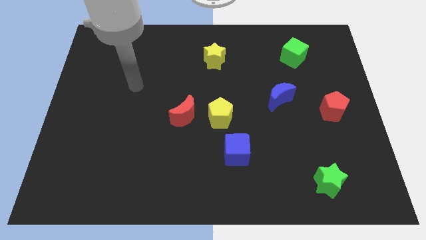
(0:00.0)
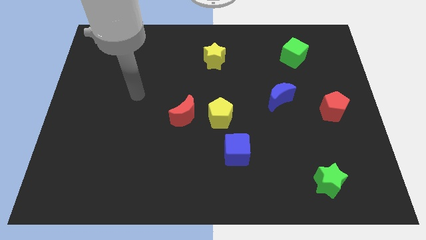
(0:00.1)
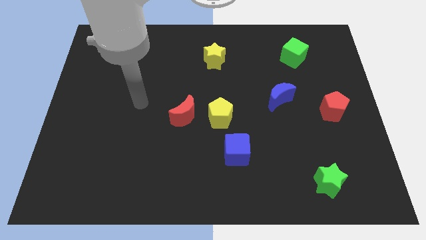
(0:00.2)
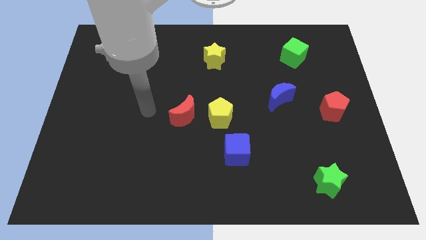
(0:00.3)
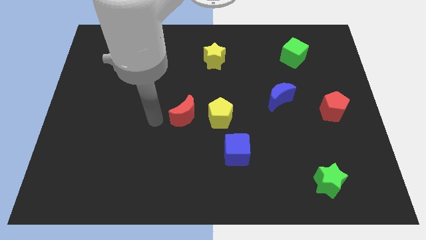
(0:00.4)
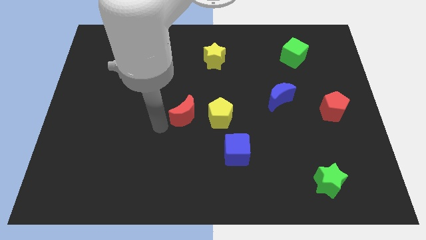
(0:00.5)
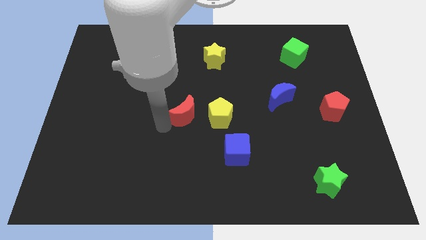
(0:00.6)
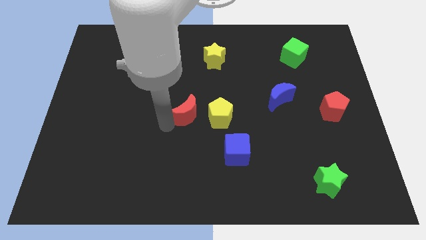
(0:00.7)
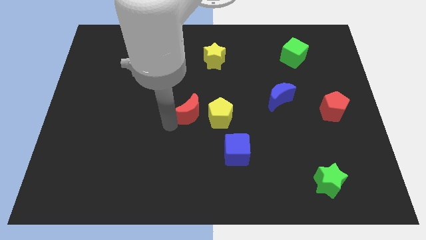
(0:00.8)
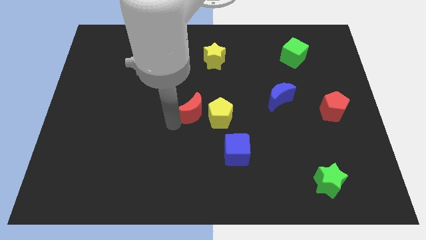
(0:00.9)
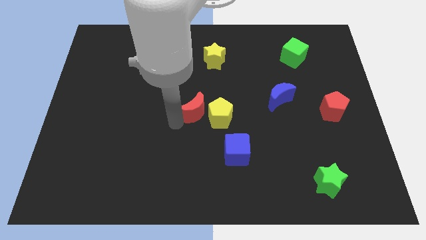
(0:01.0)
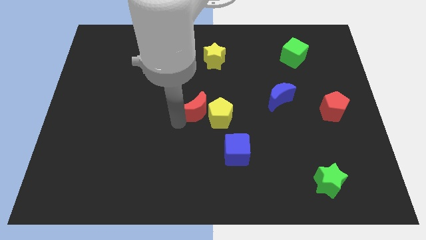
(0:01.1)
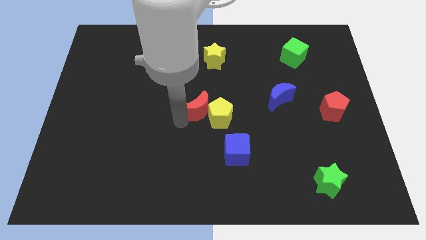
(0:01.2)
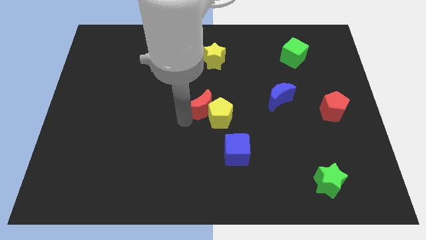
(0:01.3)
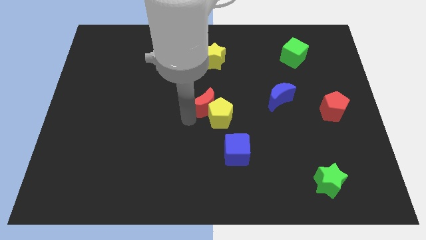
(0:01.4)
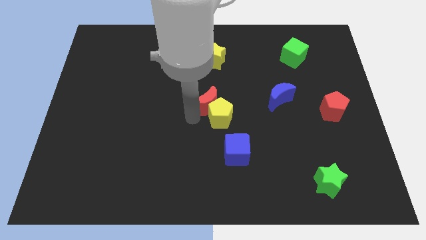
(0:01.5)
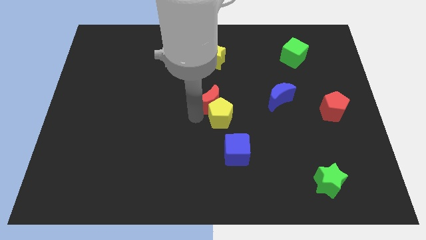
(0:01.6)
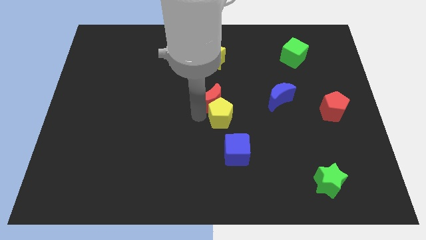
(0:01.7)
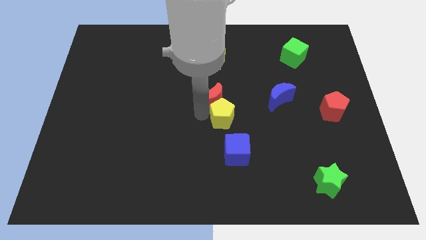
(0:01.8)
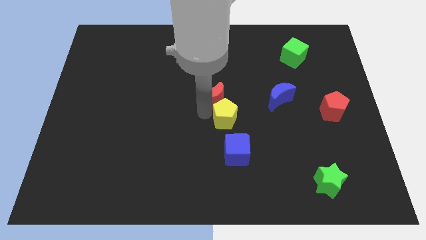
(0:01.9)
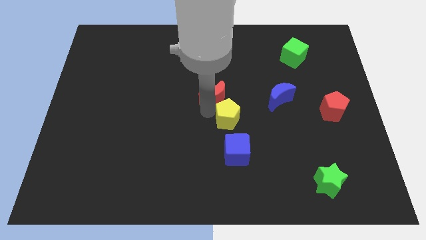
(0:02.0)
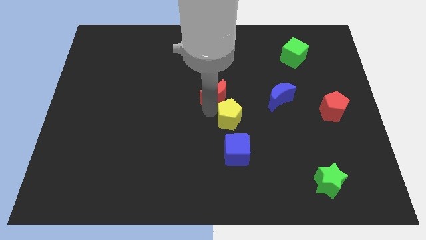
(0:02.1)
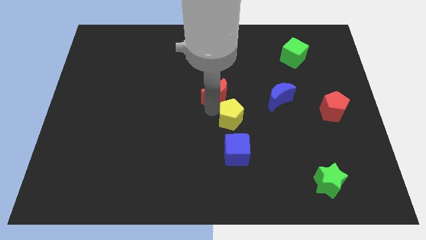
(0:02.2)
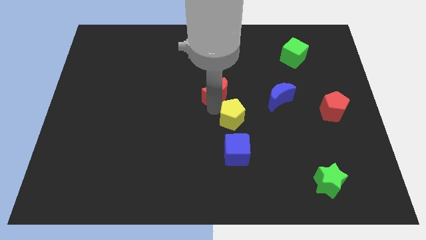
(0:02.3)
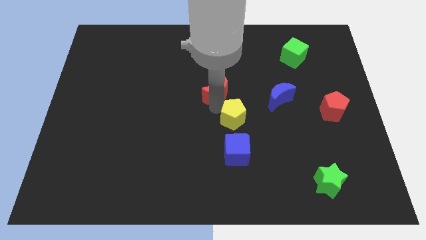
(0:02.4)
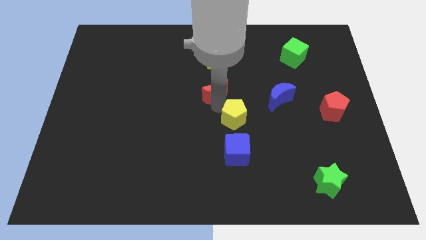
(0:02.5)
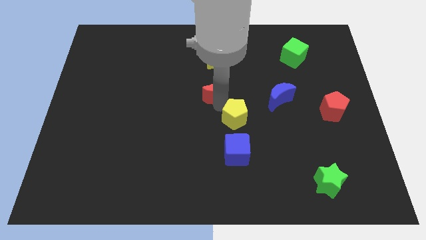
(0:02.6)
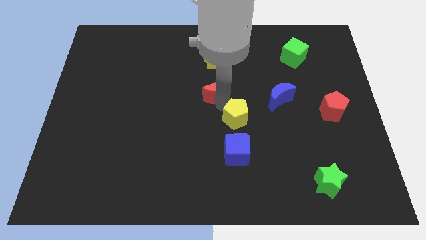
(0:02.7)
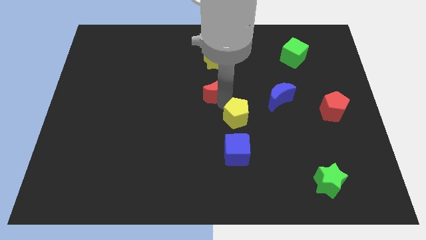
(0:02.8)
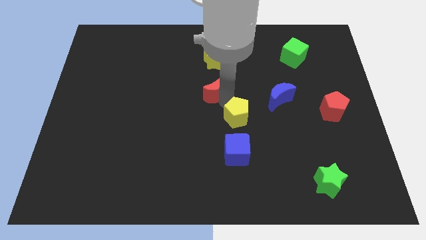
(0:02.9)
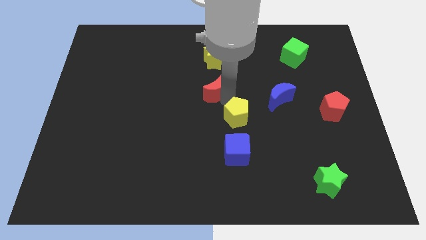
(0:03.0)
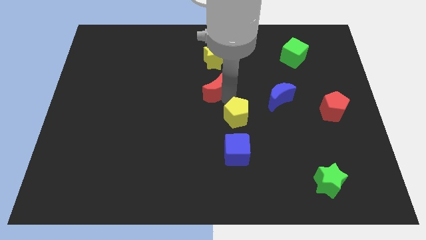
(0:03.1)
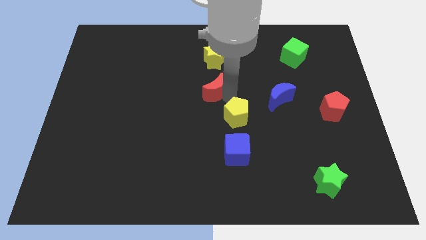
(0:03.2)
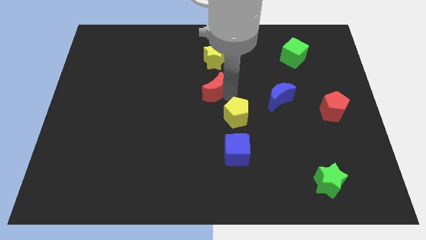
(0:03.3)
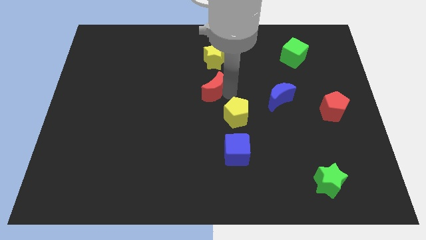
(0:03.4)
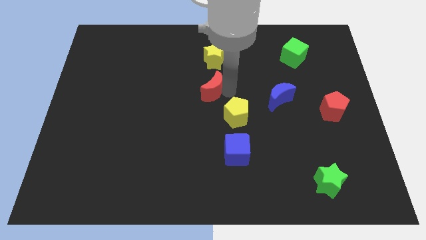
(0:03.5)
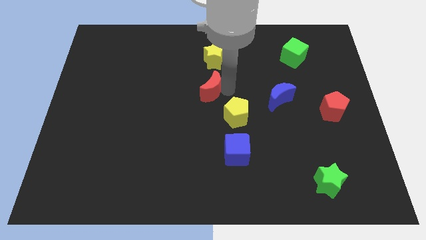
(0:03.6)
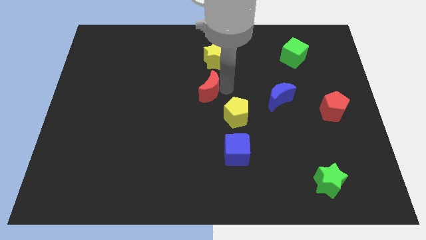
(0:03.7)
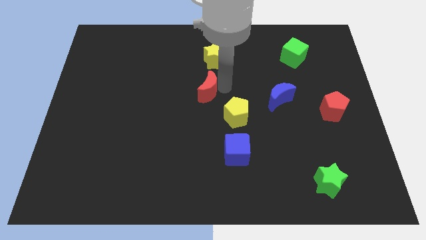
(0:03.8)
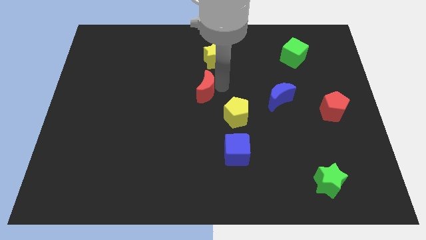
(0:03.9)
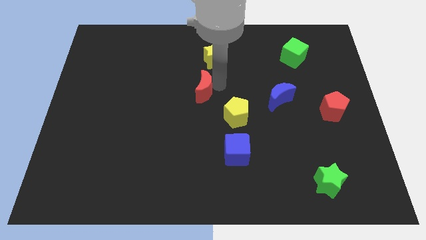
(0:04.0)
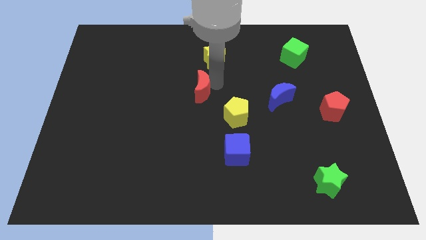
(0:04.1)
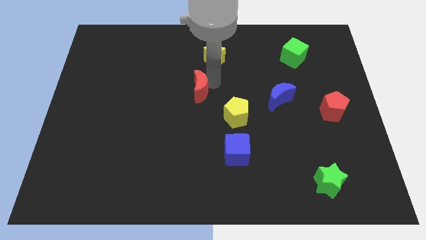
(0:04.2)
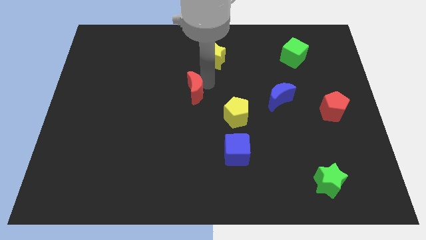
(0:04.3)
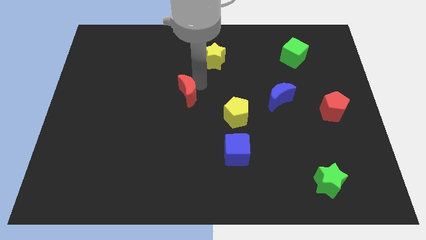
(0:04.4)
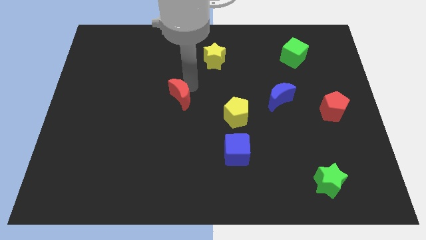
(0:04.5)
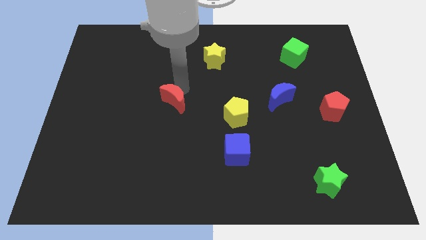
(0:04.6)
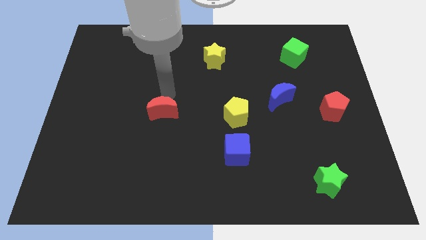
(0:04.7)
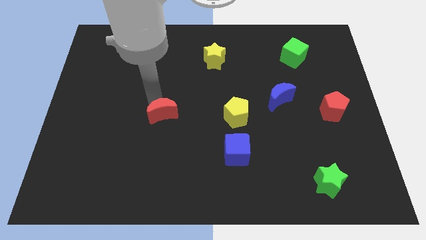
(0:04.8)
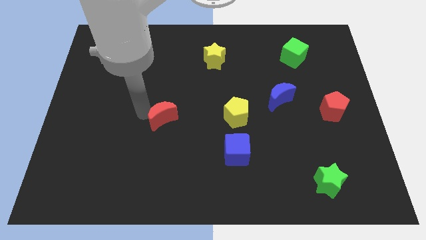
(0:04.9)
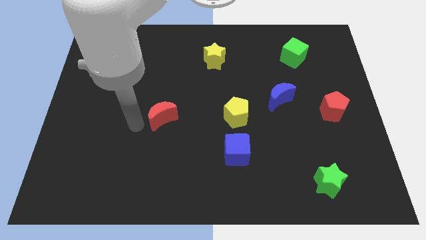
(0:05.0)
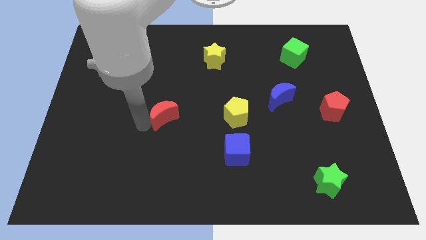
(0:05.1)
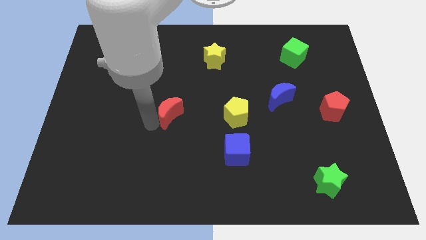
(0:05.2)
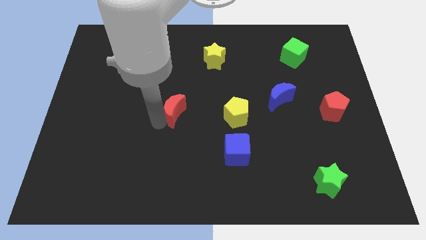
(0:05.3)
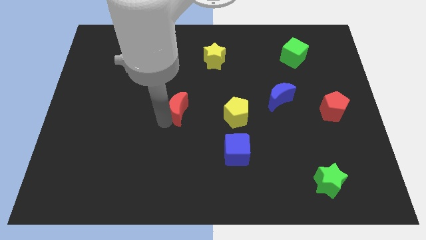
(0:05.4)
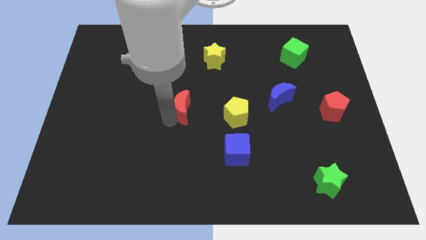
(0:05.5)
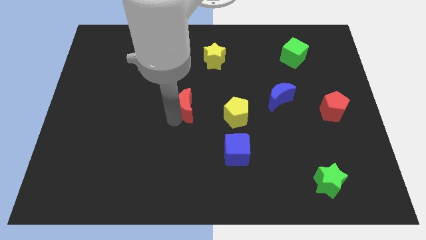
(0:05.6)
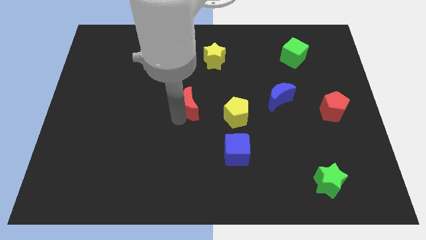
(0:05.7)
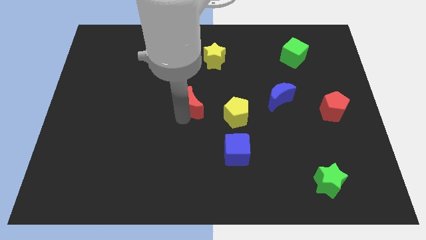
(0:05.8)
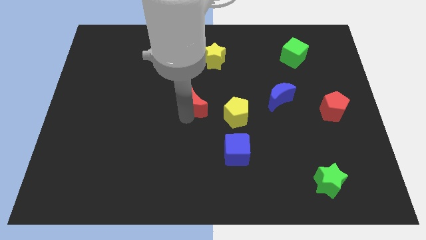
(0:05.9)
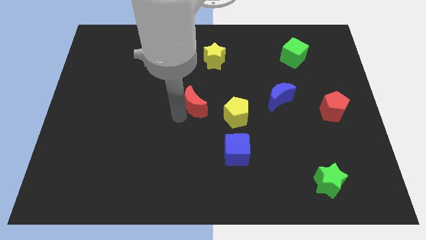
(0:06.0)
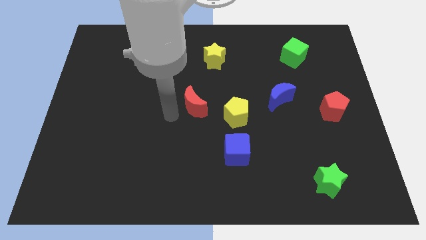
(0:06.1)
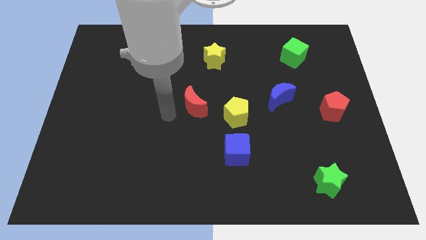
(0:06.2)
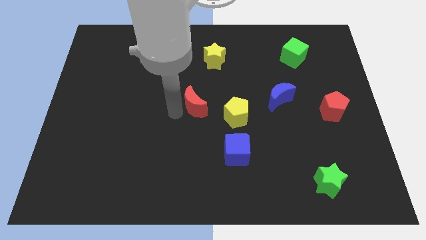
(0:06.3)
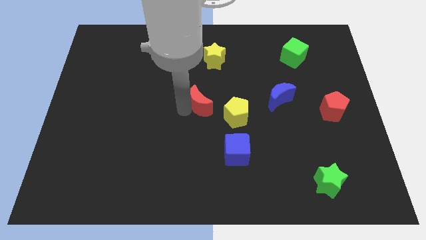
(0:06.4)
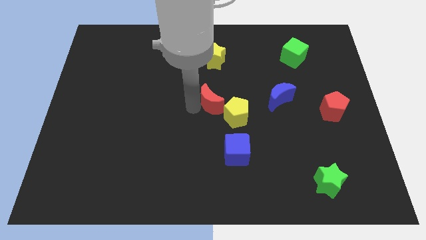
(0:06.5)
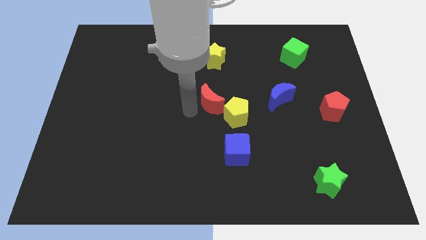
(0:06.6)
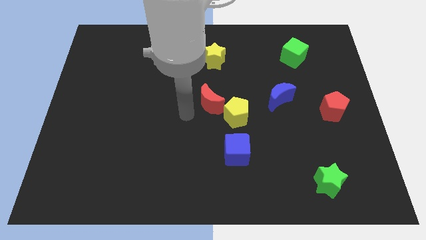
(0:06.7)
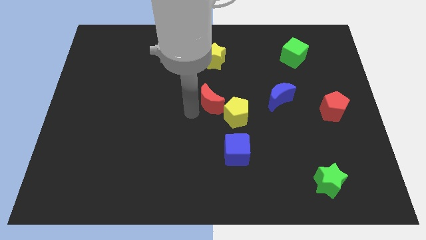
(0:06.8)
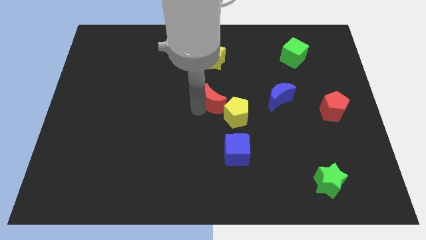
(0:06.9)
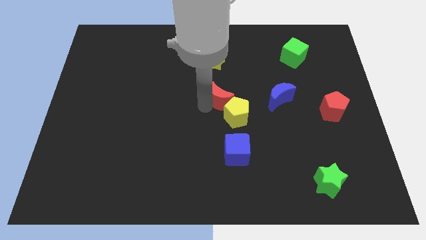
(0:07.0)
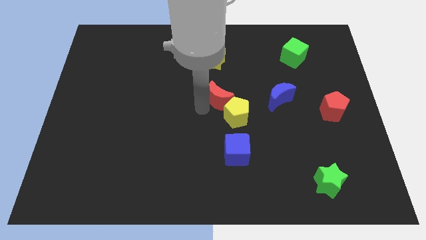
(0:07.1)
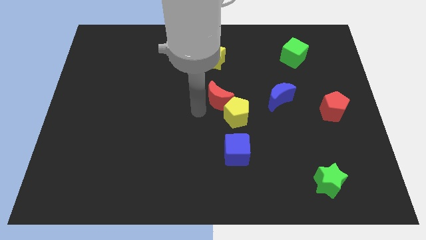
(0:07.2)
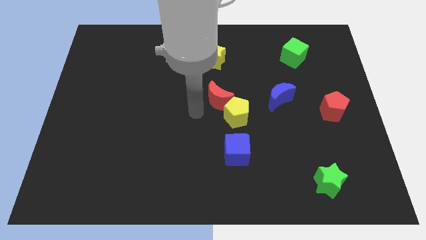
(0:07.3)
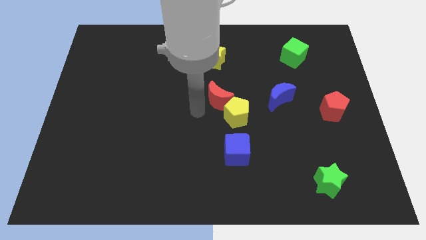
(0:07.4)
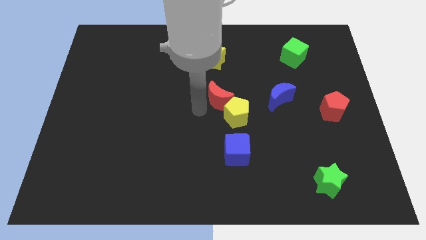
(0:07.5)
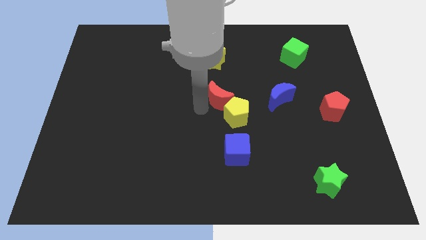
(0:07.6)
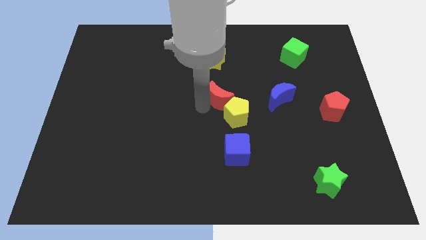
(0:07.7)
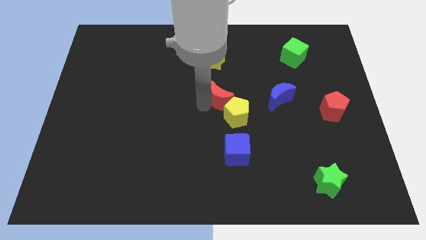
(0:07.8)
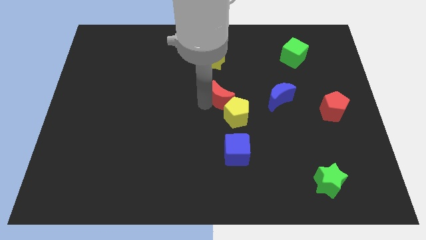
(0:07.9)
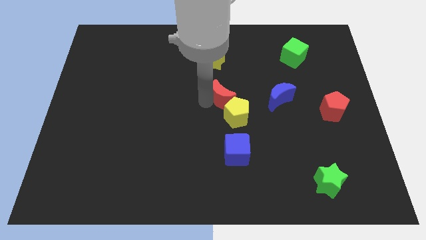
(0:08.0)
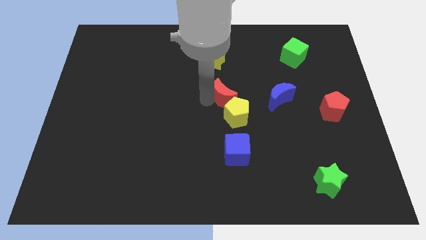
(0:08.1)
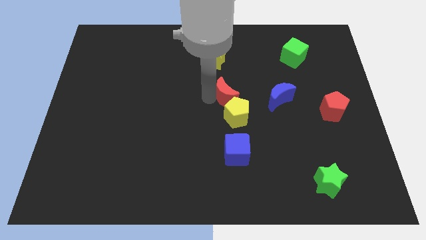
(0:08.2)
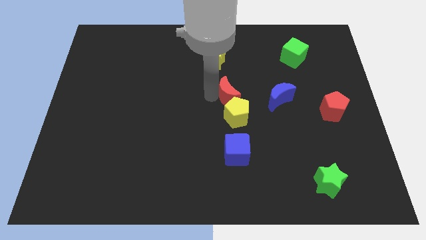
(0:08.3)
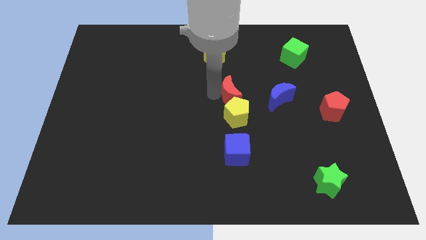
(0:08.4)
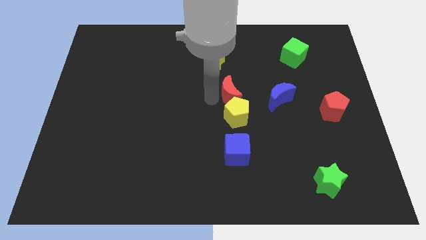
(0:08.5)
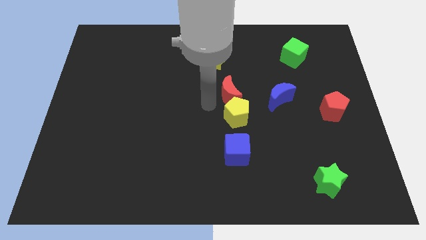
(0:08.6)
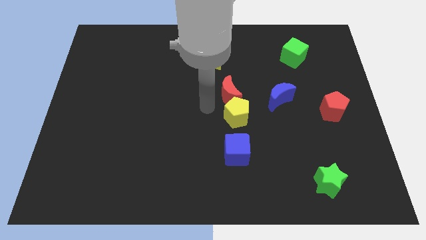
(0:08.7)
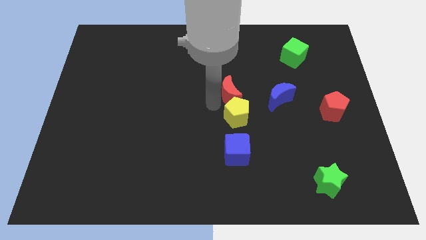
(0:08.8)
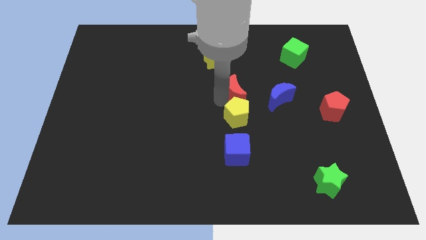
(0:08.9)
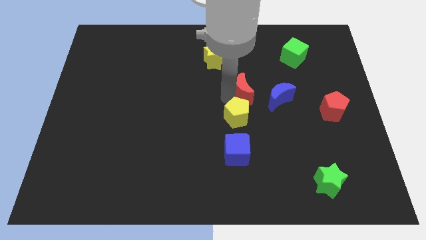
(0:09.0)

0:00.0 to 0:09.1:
push the red moon to the top left side of the blue moon
